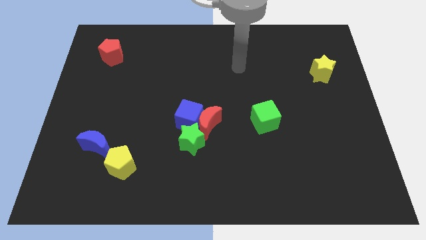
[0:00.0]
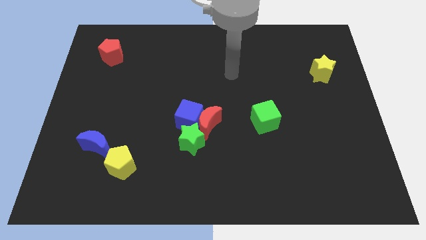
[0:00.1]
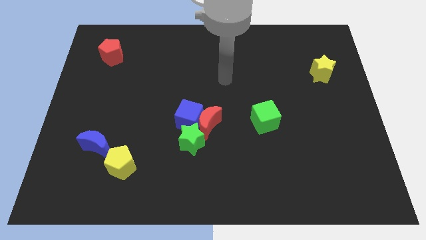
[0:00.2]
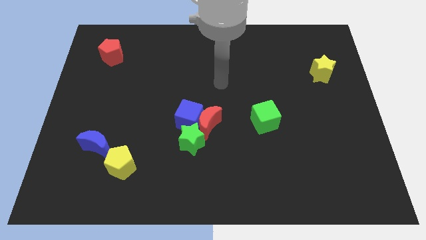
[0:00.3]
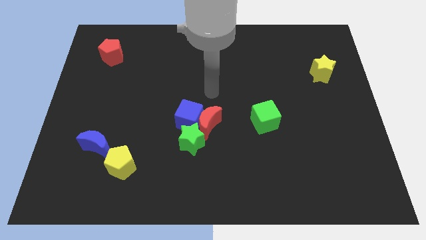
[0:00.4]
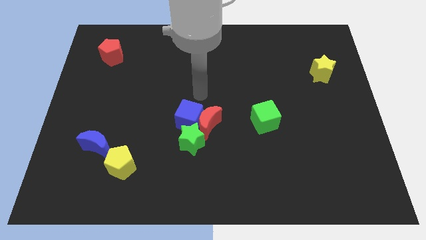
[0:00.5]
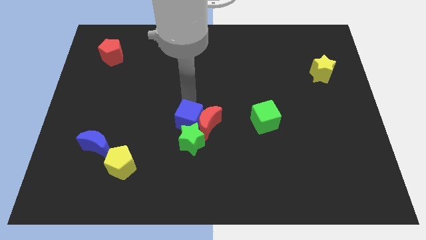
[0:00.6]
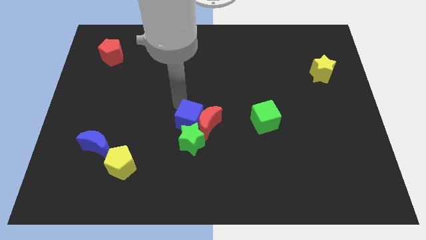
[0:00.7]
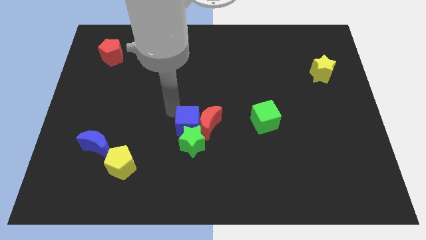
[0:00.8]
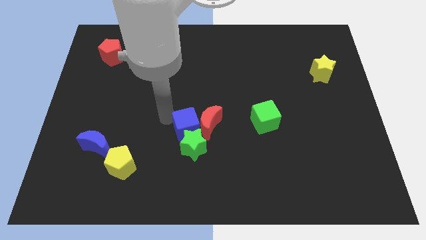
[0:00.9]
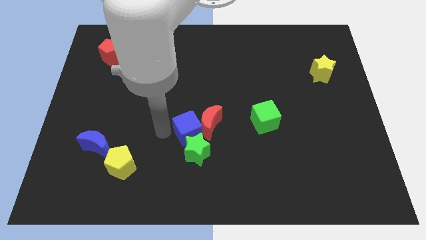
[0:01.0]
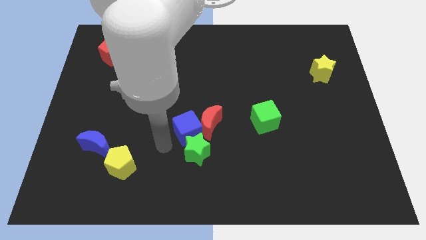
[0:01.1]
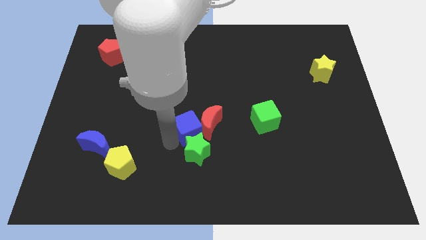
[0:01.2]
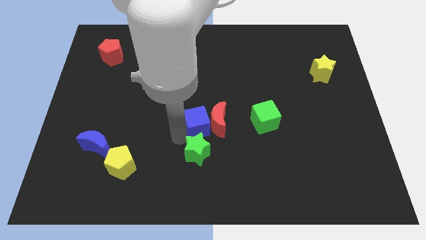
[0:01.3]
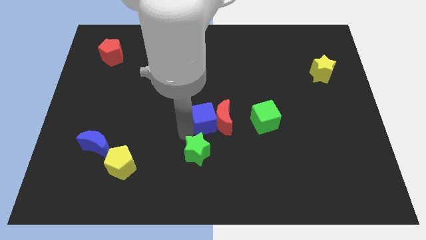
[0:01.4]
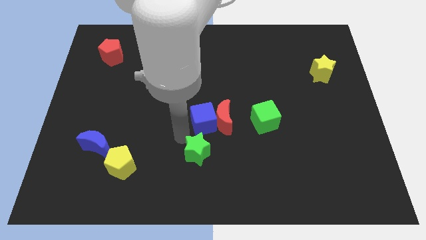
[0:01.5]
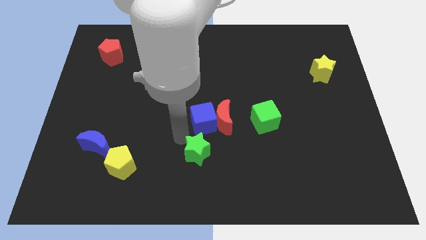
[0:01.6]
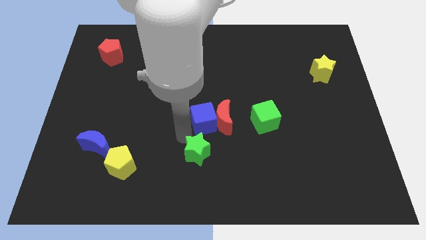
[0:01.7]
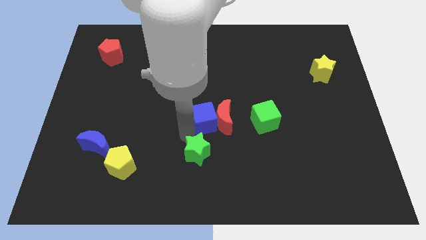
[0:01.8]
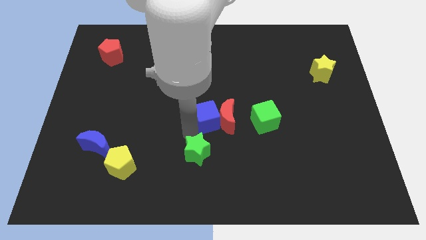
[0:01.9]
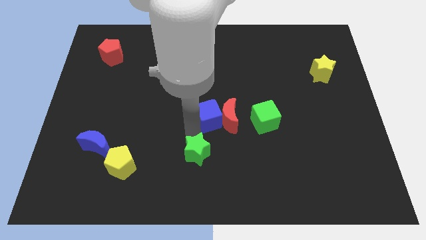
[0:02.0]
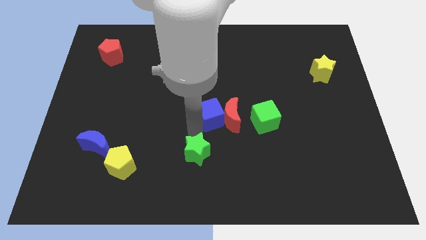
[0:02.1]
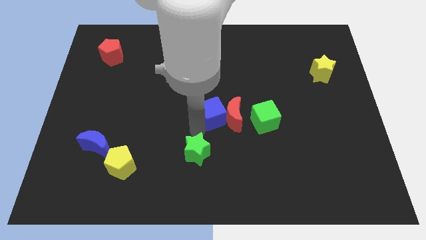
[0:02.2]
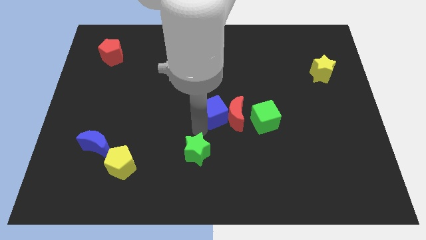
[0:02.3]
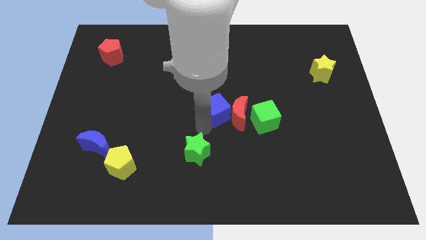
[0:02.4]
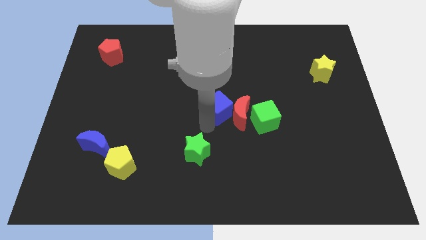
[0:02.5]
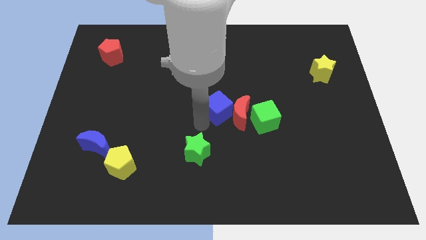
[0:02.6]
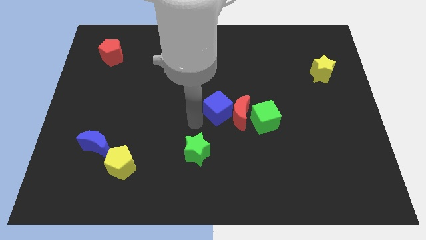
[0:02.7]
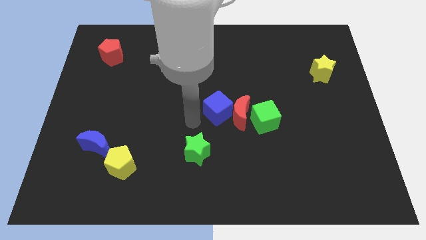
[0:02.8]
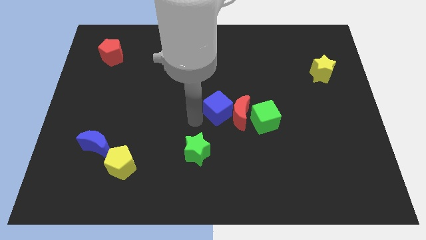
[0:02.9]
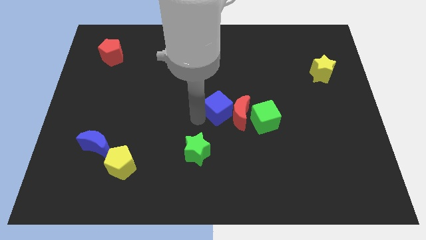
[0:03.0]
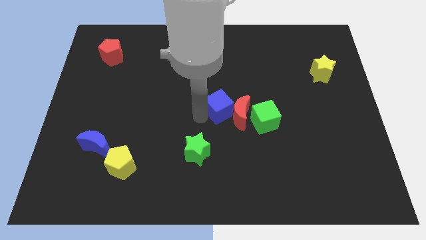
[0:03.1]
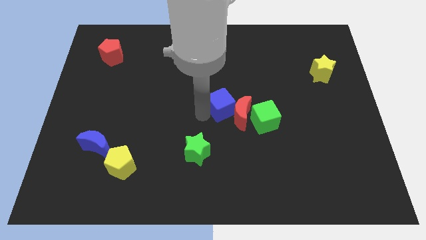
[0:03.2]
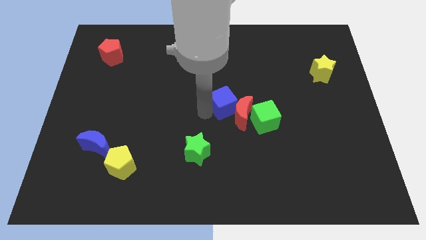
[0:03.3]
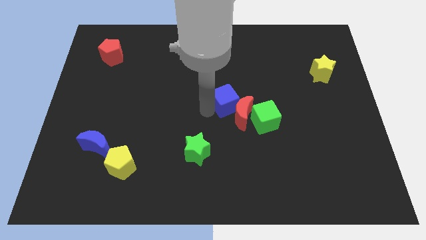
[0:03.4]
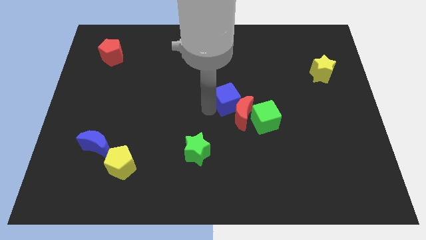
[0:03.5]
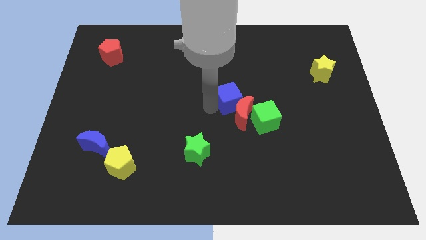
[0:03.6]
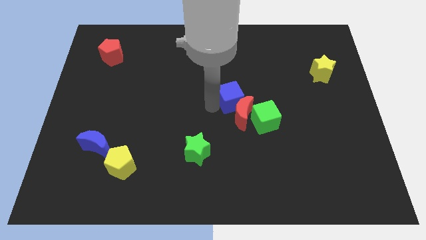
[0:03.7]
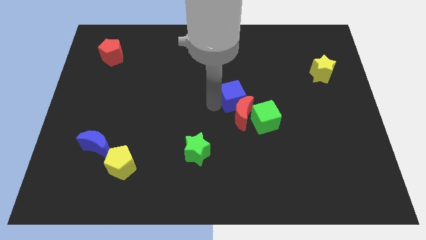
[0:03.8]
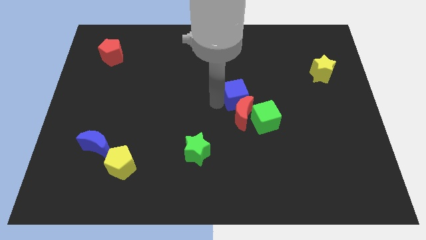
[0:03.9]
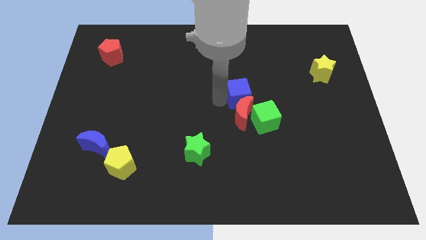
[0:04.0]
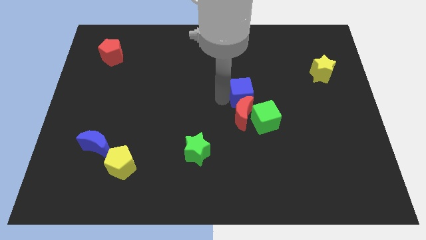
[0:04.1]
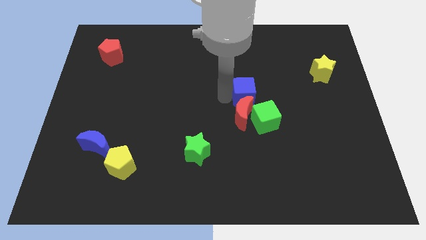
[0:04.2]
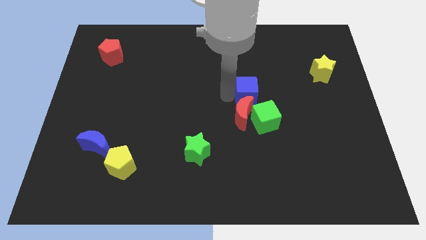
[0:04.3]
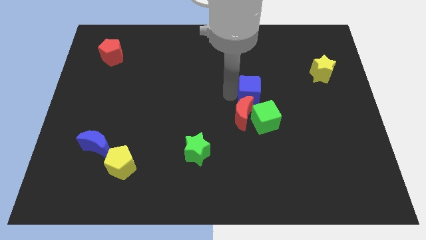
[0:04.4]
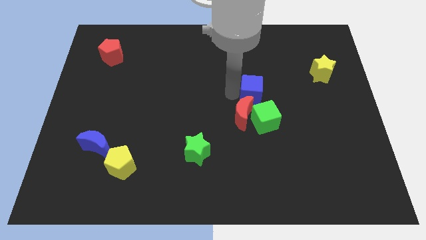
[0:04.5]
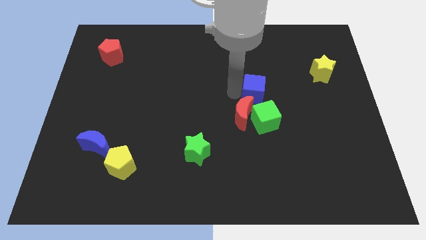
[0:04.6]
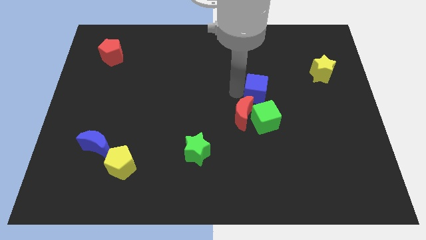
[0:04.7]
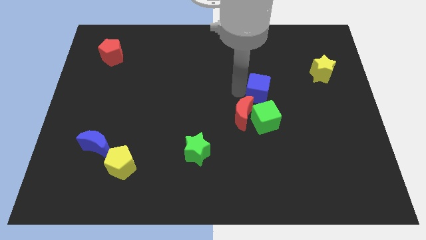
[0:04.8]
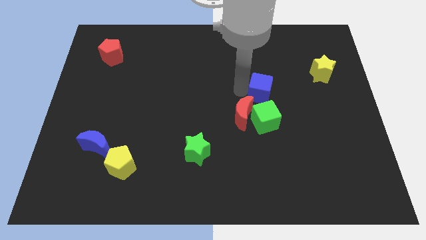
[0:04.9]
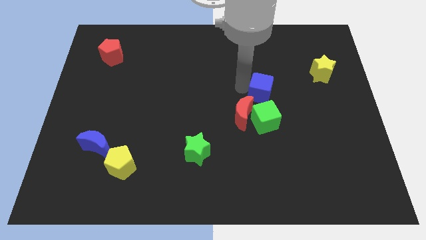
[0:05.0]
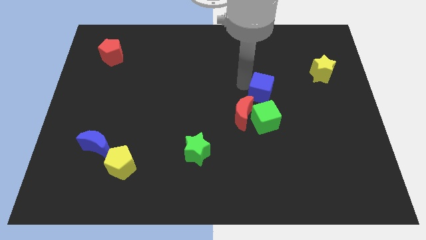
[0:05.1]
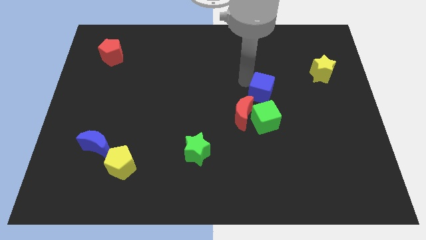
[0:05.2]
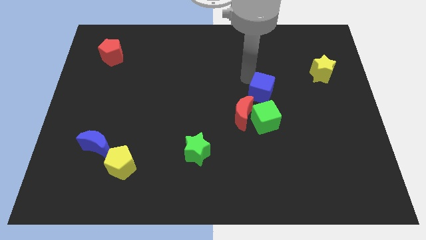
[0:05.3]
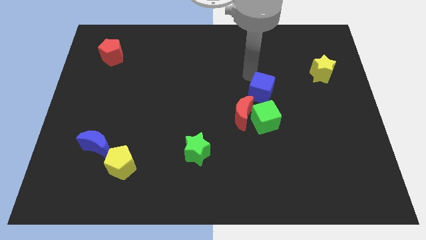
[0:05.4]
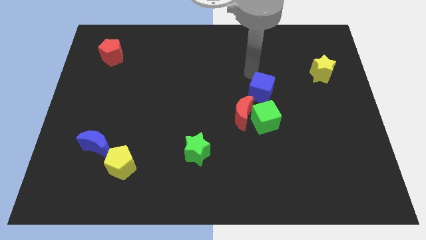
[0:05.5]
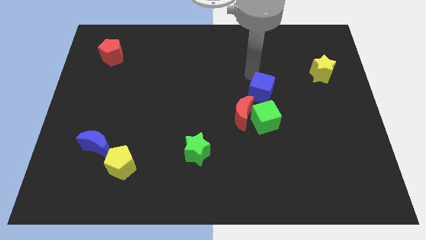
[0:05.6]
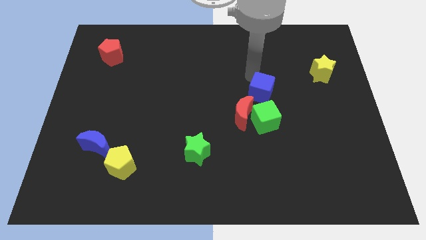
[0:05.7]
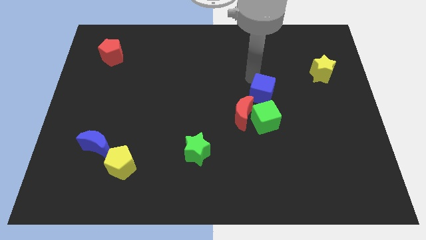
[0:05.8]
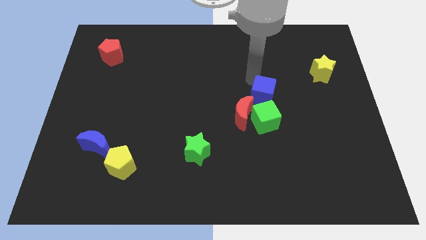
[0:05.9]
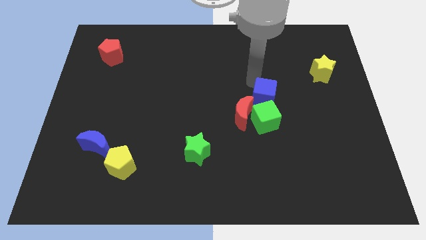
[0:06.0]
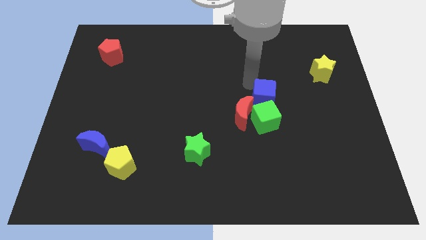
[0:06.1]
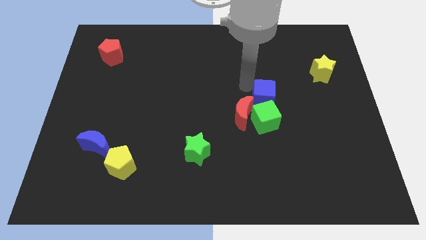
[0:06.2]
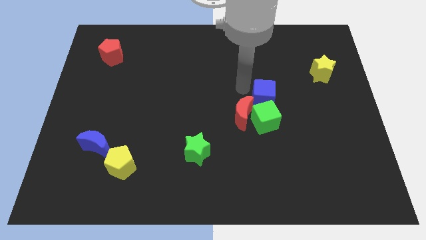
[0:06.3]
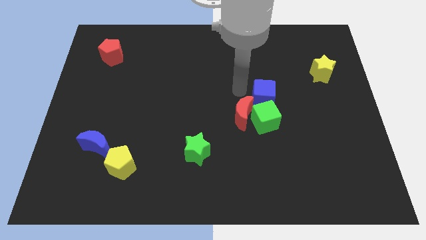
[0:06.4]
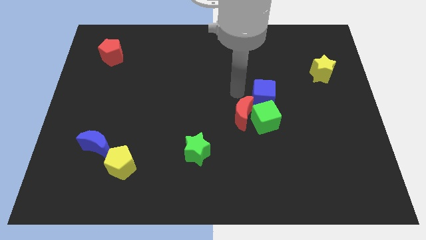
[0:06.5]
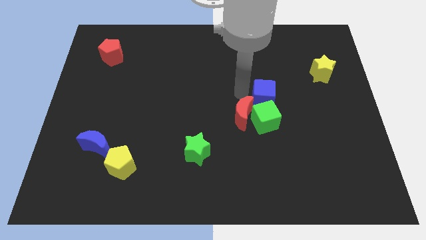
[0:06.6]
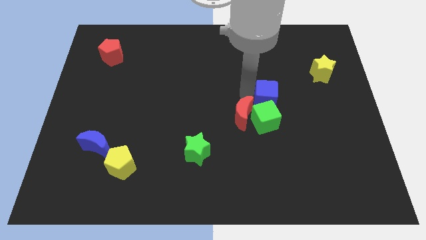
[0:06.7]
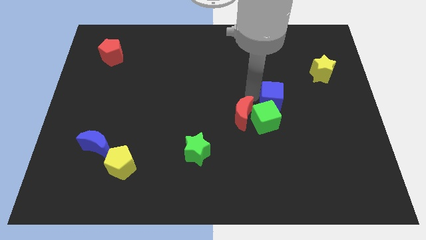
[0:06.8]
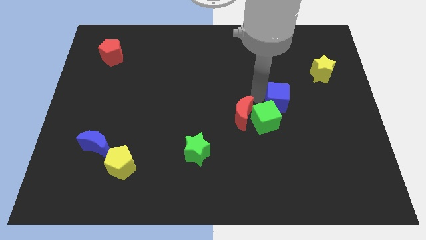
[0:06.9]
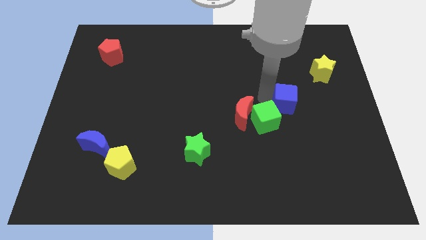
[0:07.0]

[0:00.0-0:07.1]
move the blue cube to the right

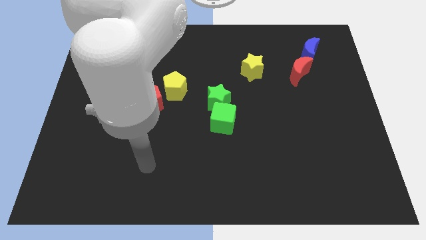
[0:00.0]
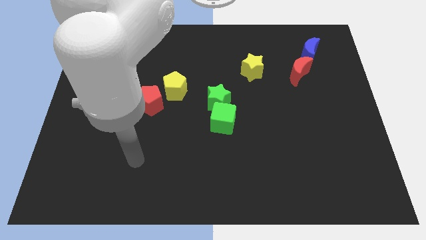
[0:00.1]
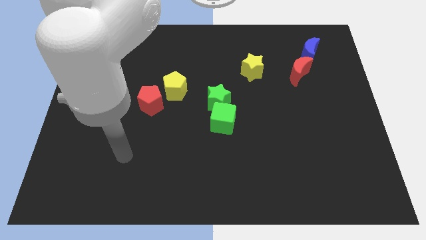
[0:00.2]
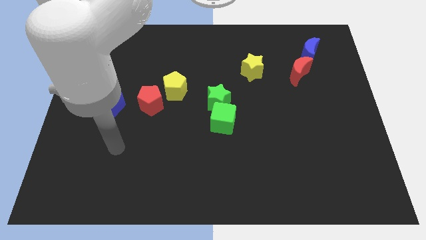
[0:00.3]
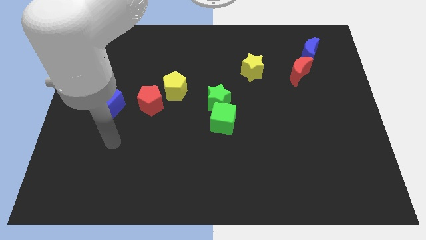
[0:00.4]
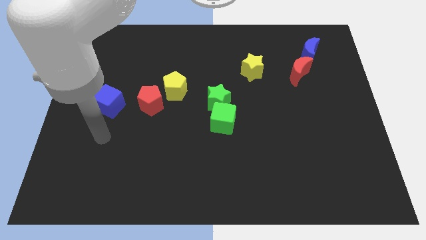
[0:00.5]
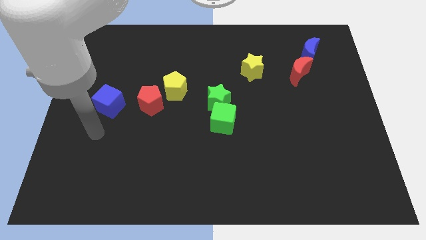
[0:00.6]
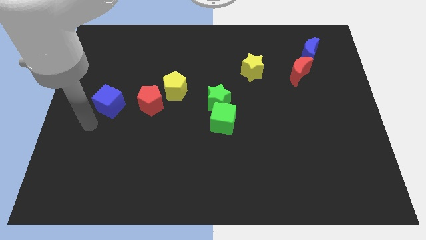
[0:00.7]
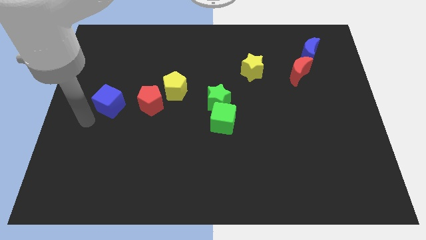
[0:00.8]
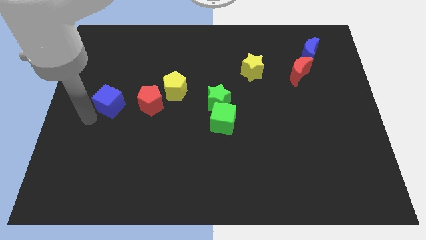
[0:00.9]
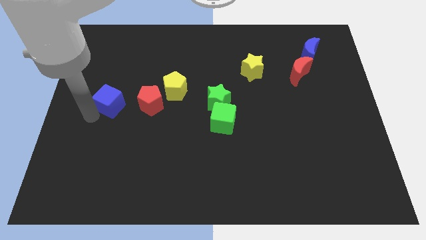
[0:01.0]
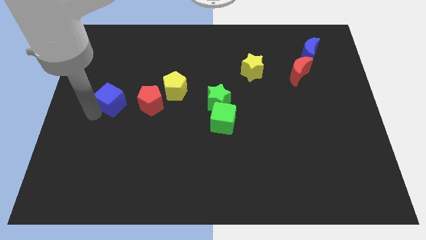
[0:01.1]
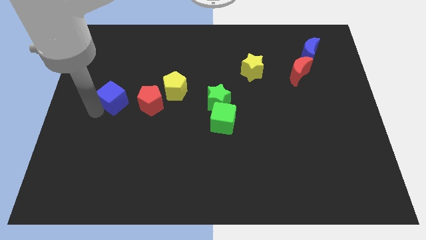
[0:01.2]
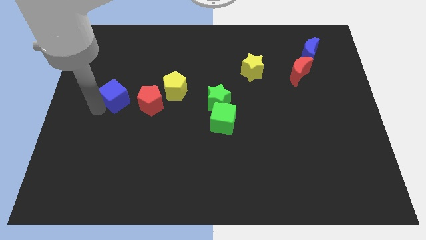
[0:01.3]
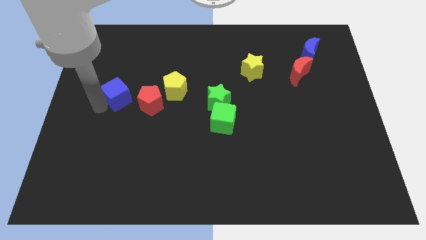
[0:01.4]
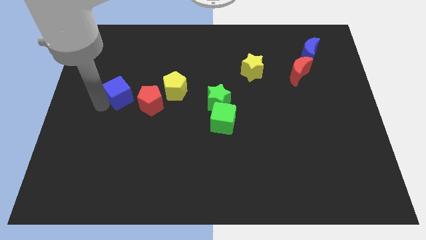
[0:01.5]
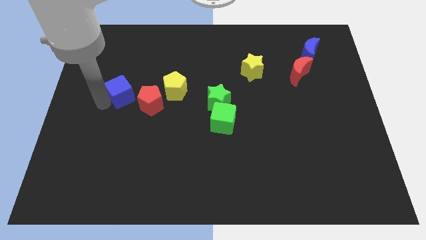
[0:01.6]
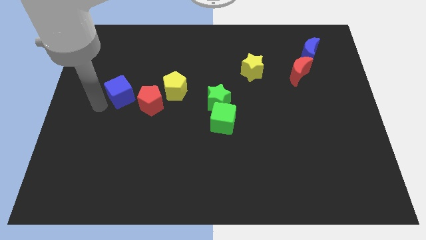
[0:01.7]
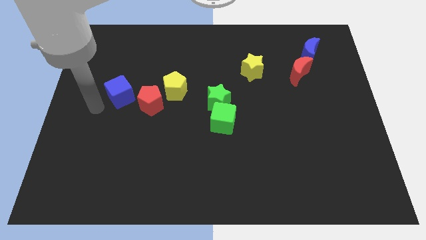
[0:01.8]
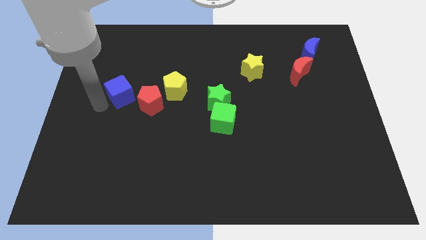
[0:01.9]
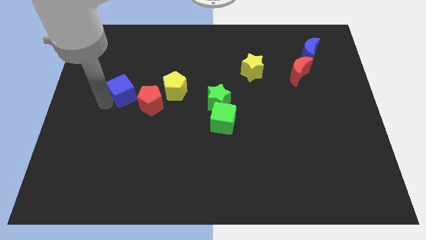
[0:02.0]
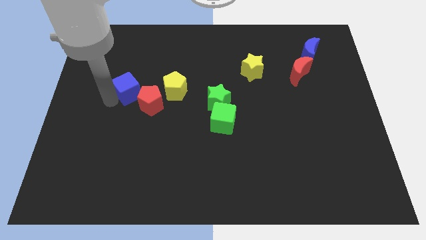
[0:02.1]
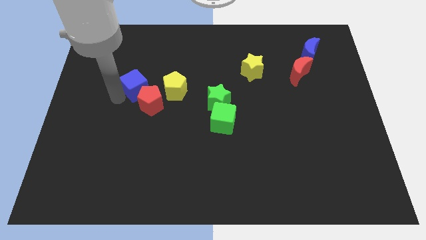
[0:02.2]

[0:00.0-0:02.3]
move the blue cube up and right slightly
